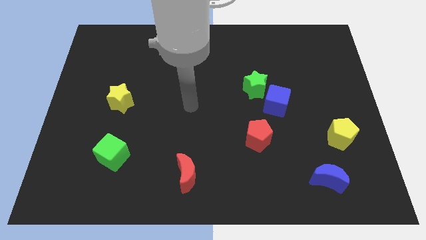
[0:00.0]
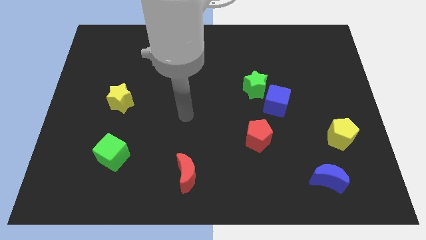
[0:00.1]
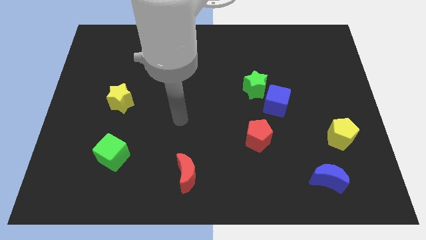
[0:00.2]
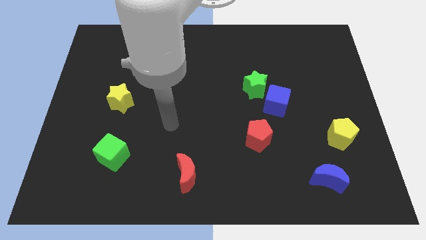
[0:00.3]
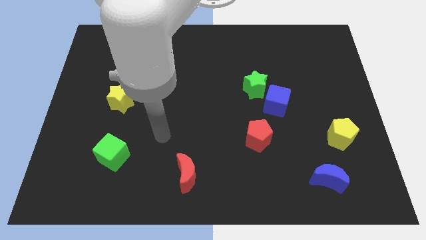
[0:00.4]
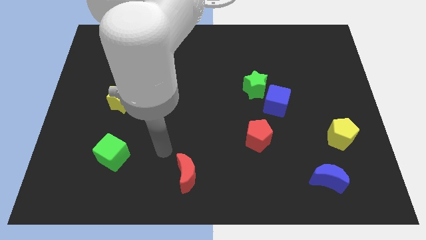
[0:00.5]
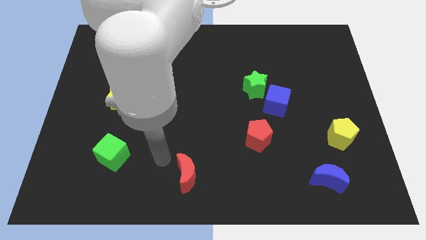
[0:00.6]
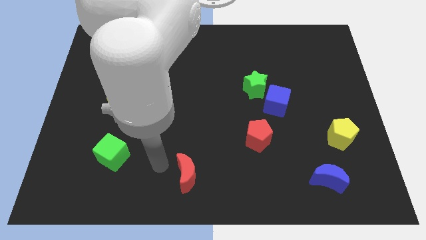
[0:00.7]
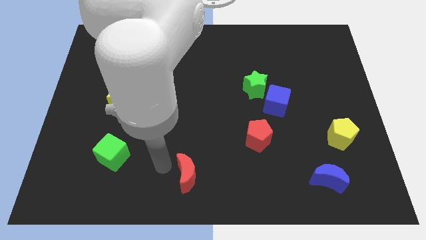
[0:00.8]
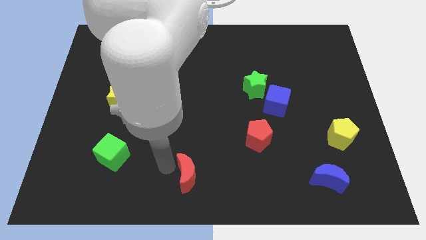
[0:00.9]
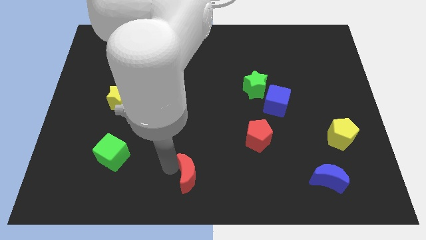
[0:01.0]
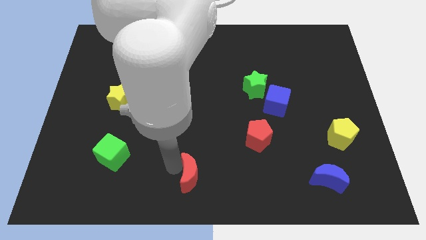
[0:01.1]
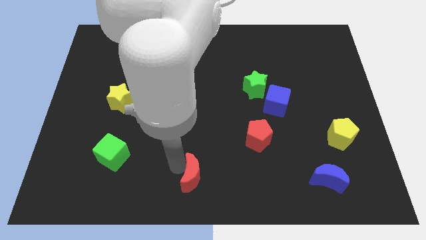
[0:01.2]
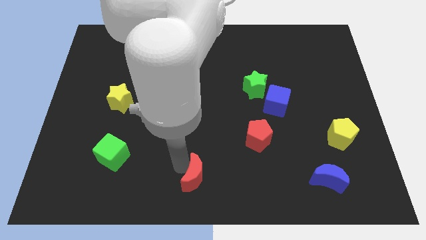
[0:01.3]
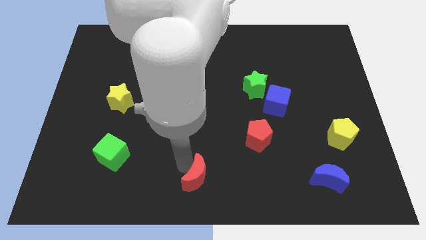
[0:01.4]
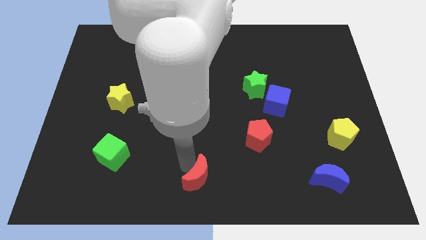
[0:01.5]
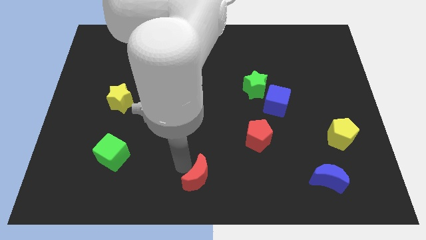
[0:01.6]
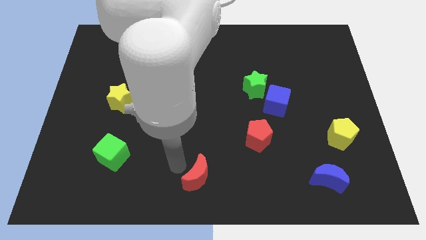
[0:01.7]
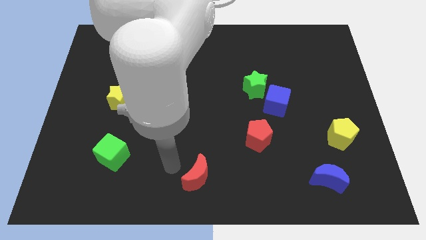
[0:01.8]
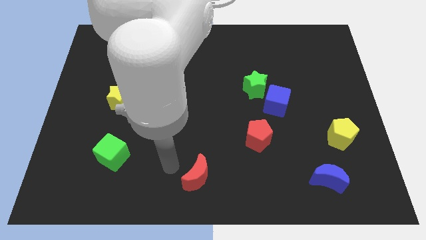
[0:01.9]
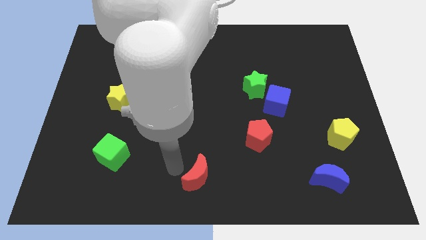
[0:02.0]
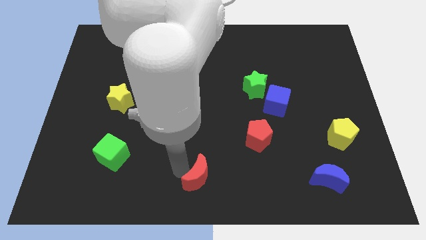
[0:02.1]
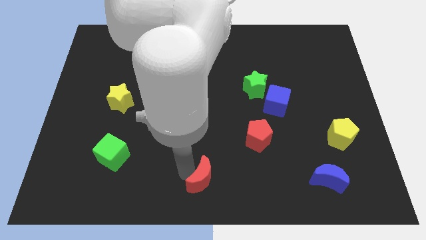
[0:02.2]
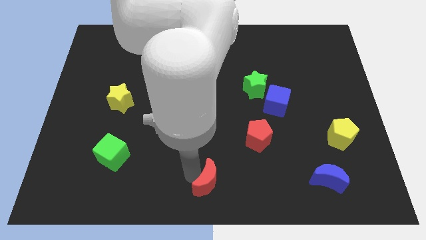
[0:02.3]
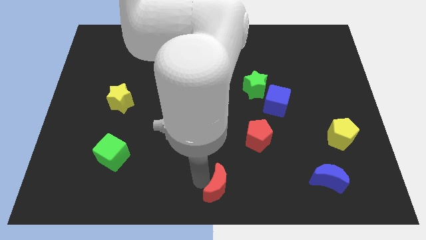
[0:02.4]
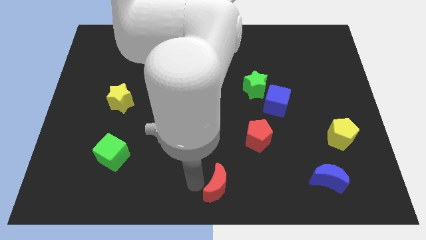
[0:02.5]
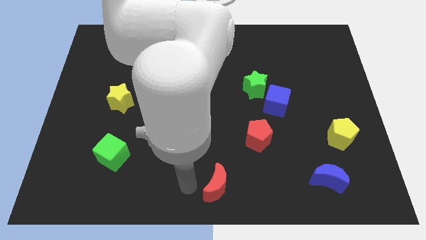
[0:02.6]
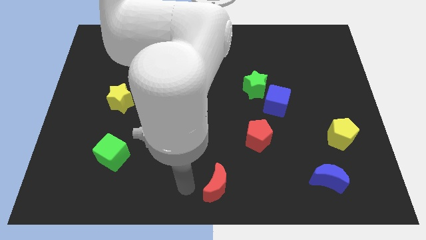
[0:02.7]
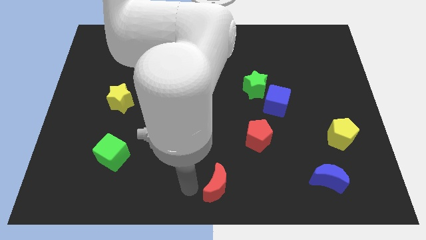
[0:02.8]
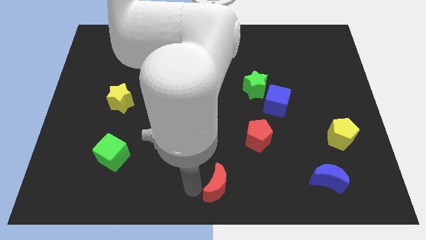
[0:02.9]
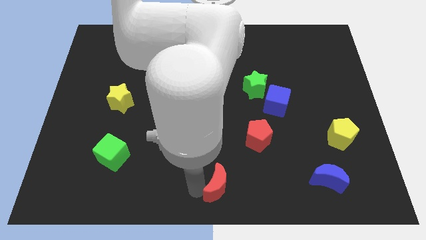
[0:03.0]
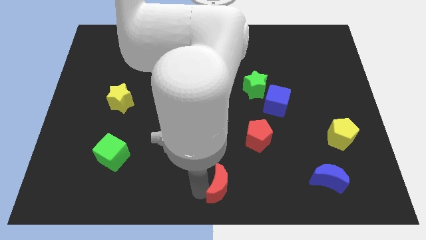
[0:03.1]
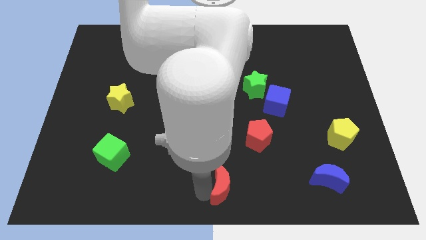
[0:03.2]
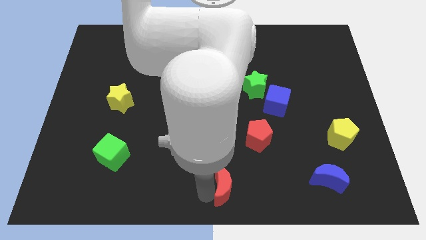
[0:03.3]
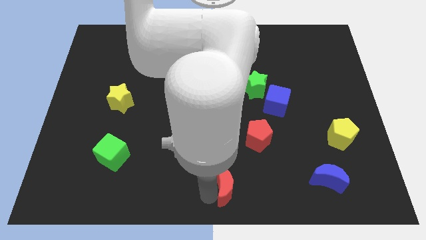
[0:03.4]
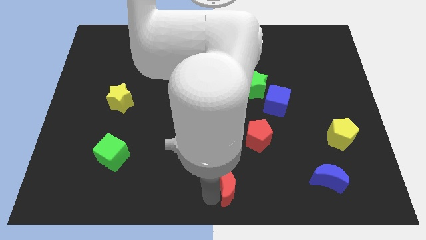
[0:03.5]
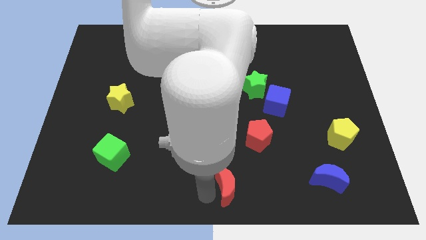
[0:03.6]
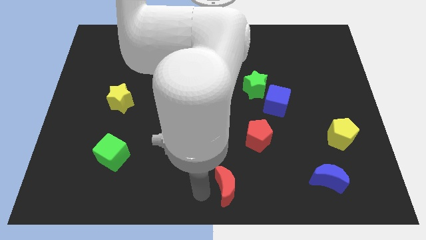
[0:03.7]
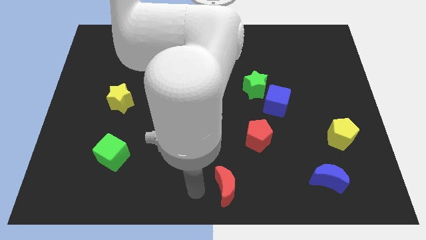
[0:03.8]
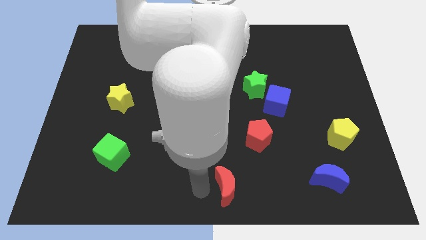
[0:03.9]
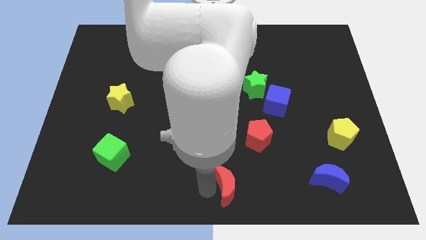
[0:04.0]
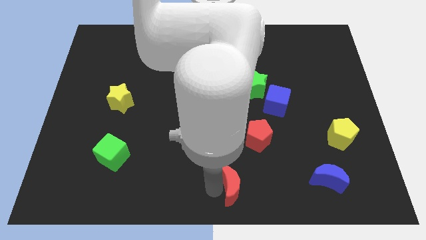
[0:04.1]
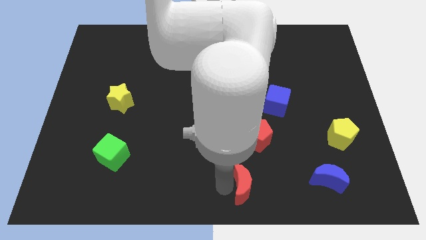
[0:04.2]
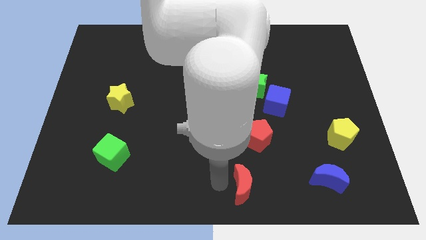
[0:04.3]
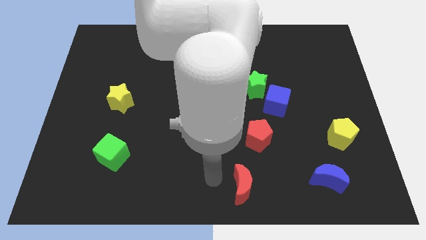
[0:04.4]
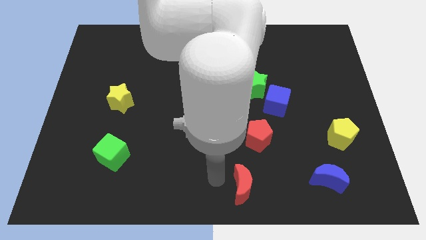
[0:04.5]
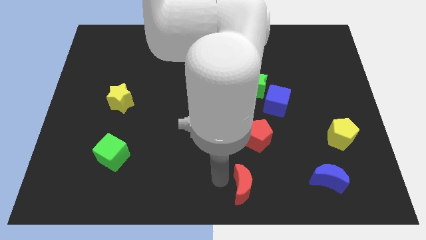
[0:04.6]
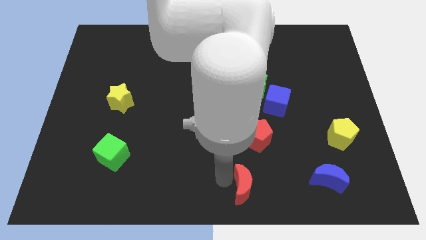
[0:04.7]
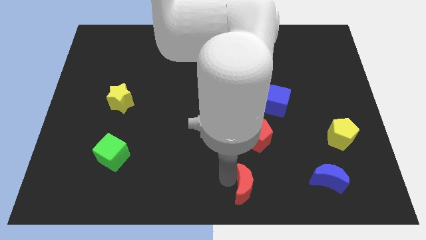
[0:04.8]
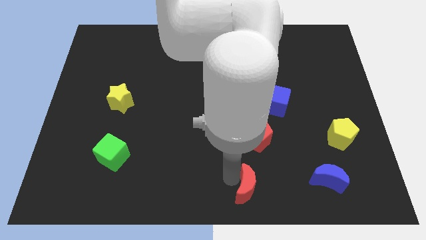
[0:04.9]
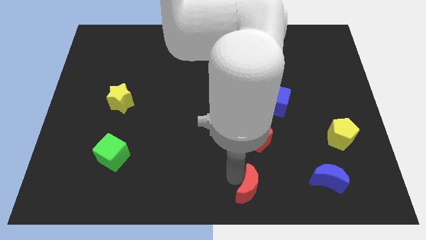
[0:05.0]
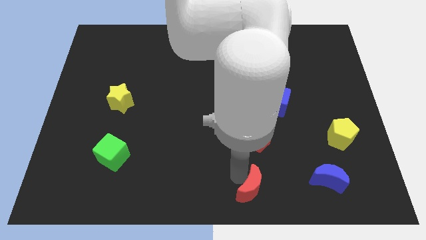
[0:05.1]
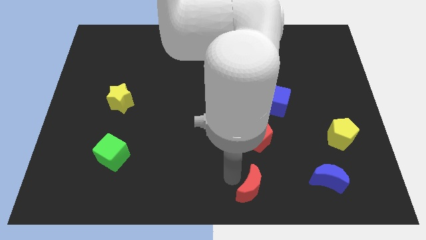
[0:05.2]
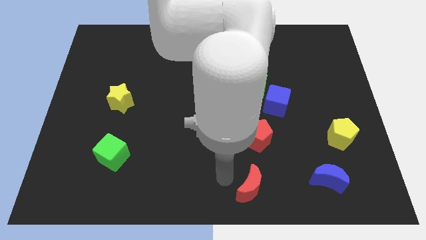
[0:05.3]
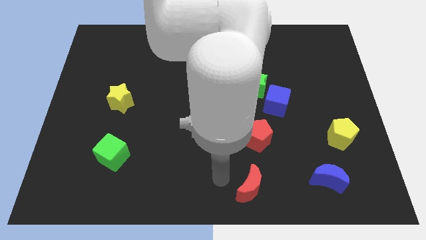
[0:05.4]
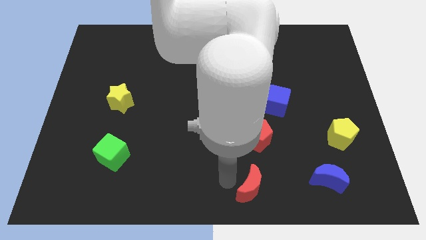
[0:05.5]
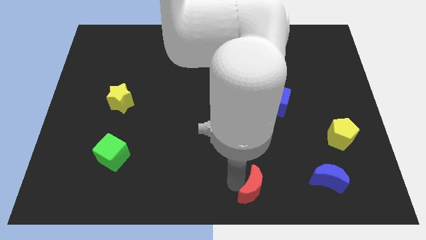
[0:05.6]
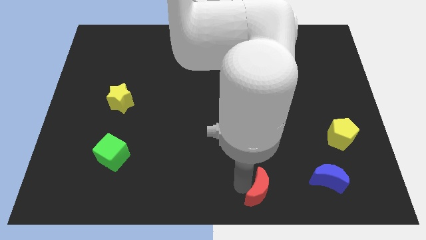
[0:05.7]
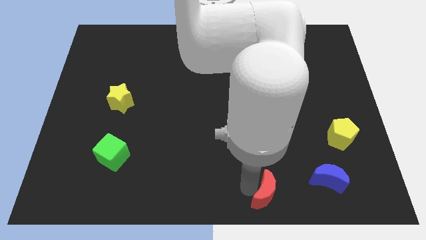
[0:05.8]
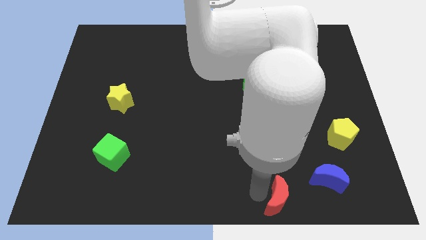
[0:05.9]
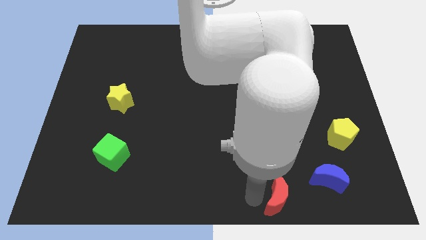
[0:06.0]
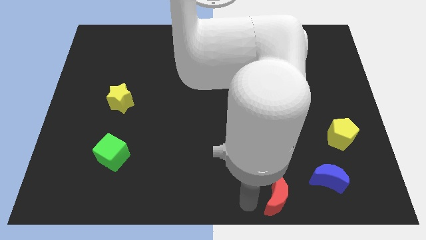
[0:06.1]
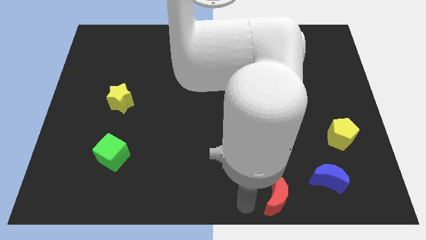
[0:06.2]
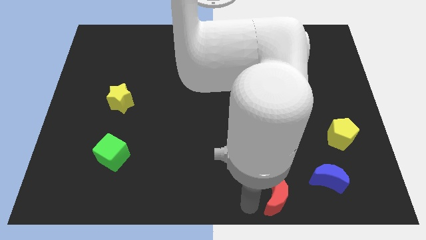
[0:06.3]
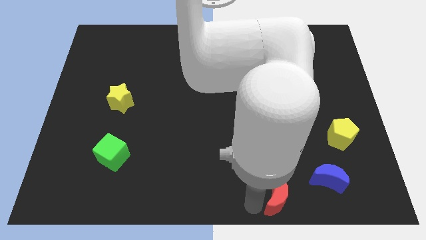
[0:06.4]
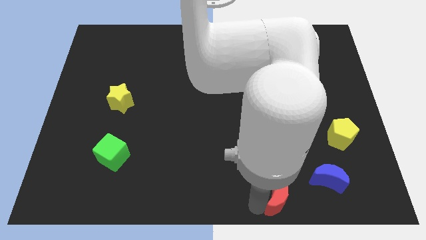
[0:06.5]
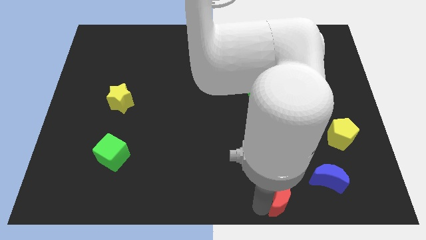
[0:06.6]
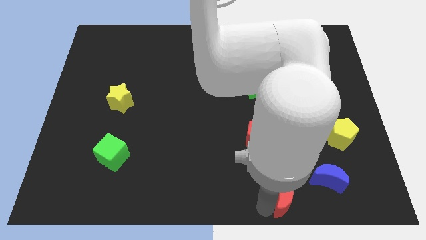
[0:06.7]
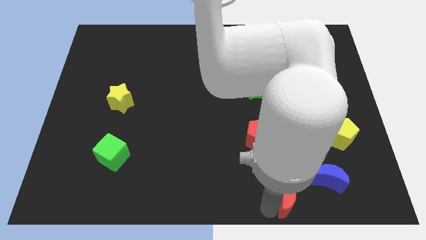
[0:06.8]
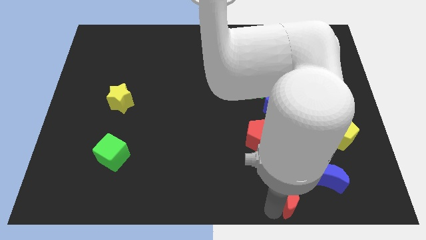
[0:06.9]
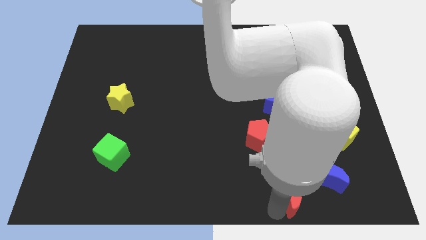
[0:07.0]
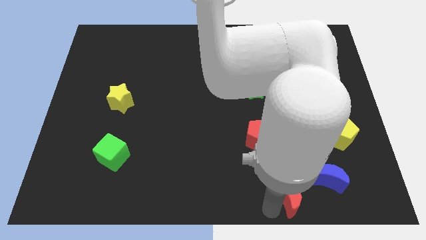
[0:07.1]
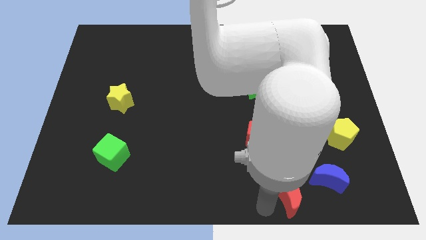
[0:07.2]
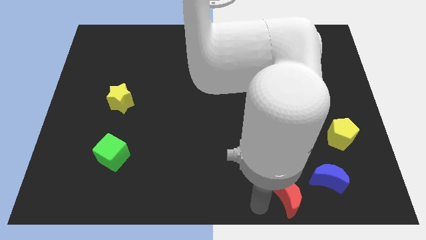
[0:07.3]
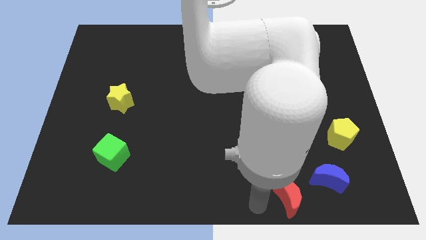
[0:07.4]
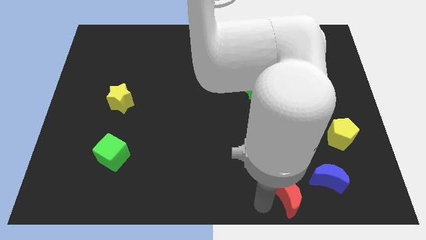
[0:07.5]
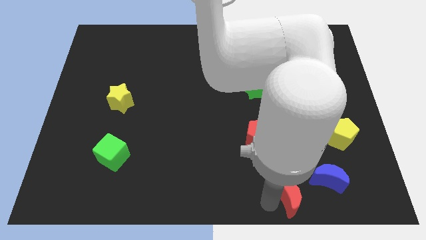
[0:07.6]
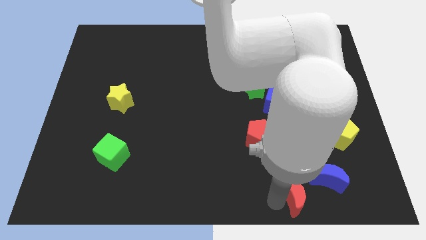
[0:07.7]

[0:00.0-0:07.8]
push the red moon right
